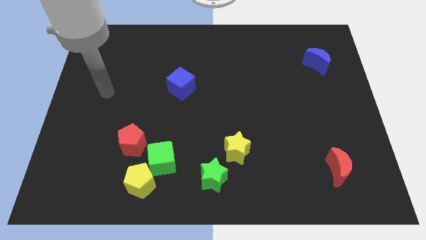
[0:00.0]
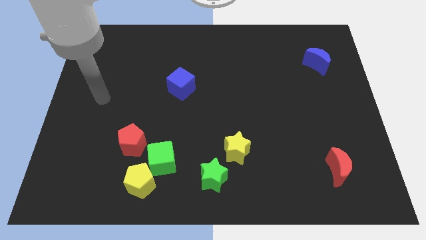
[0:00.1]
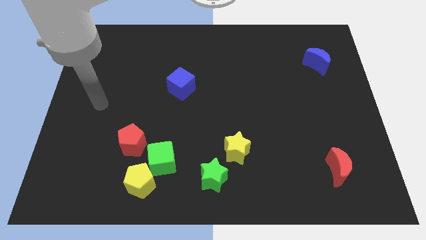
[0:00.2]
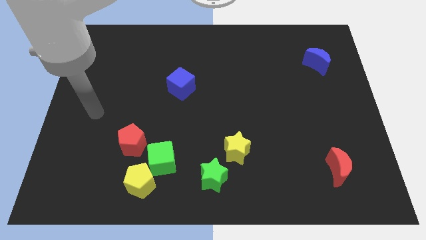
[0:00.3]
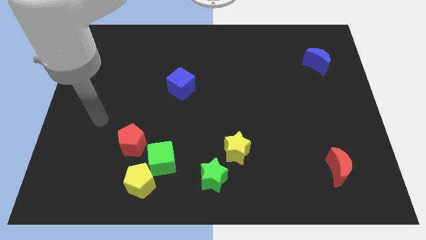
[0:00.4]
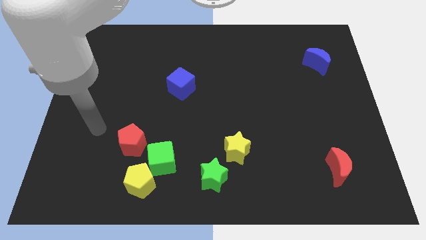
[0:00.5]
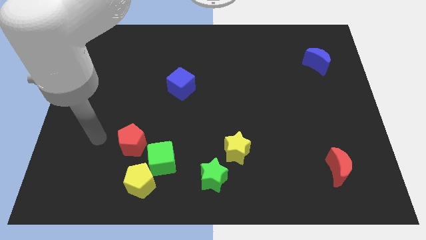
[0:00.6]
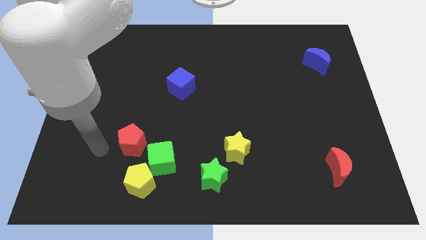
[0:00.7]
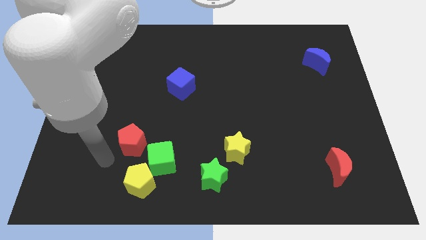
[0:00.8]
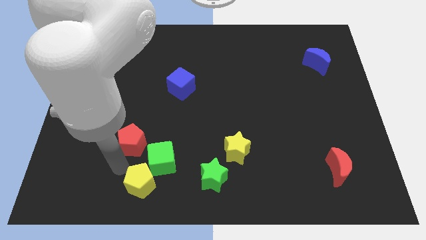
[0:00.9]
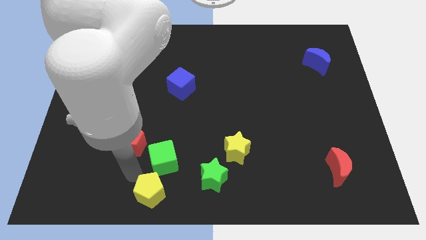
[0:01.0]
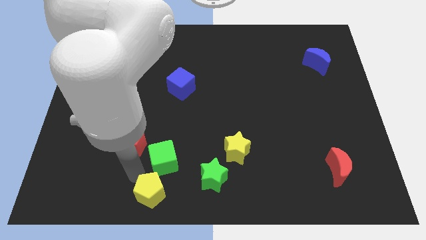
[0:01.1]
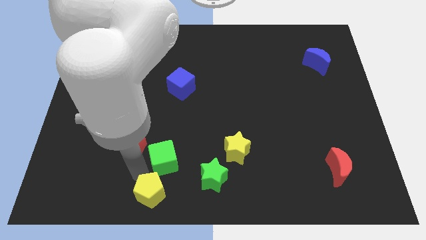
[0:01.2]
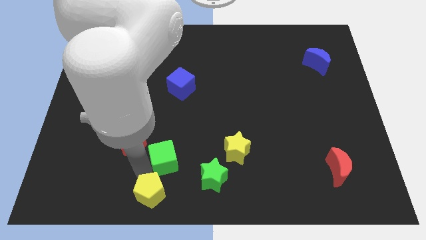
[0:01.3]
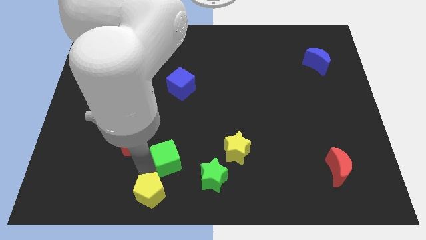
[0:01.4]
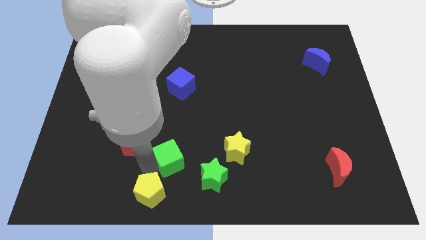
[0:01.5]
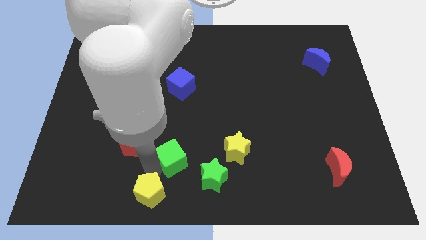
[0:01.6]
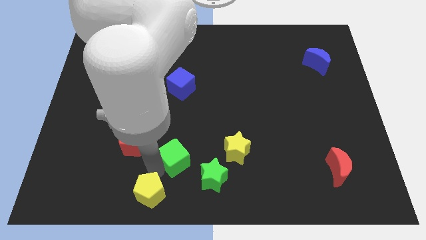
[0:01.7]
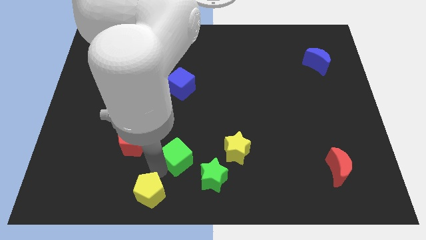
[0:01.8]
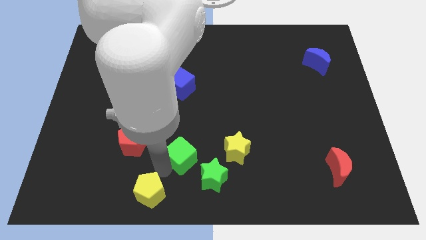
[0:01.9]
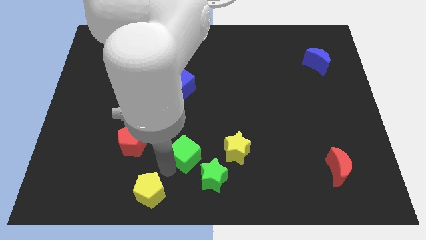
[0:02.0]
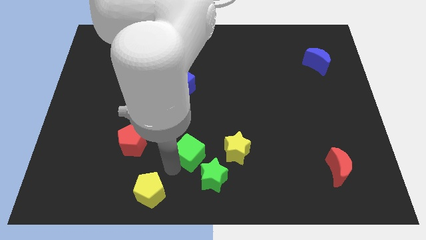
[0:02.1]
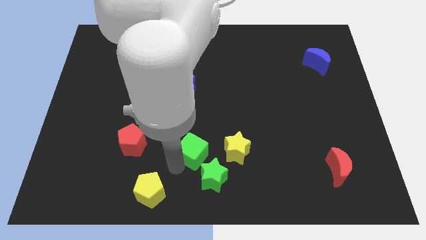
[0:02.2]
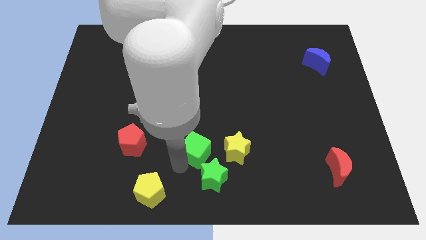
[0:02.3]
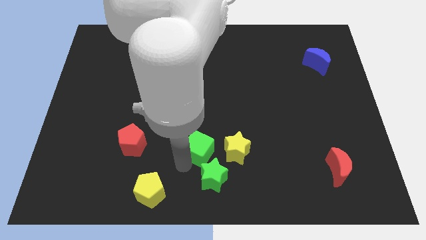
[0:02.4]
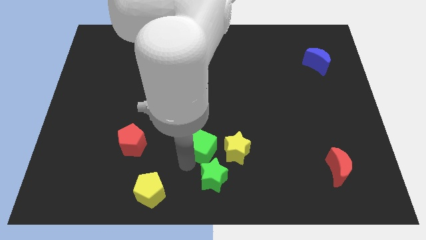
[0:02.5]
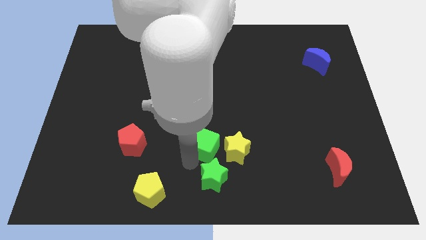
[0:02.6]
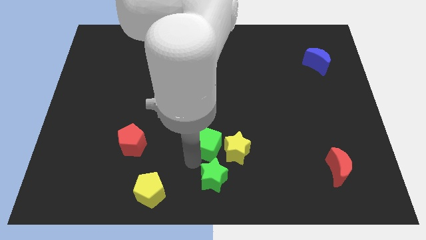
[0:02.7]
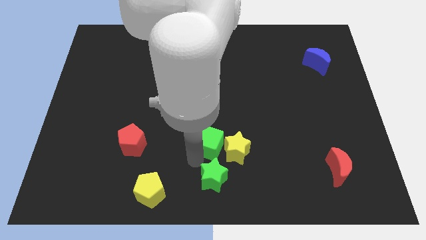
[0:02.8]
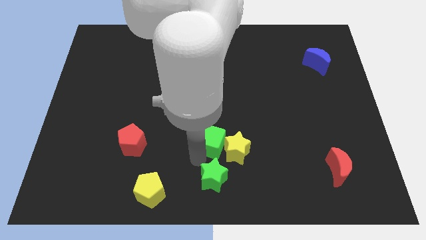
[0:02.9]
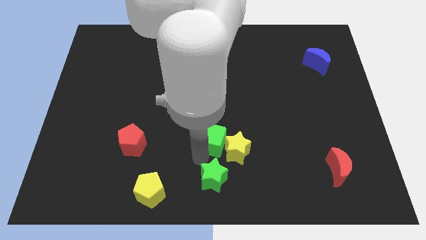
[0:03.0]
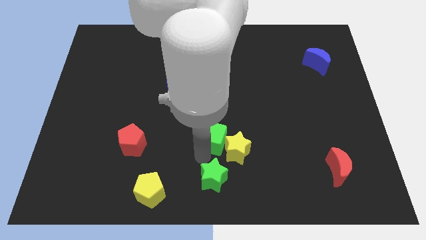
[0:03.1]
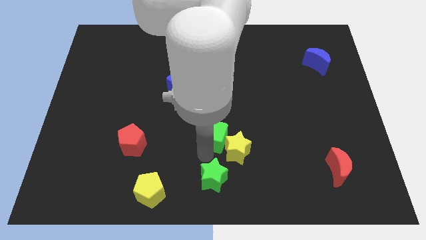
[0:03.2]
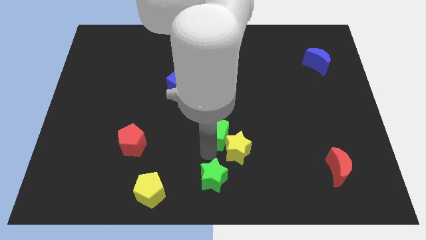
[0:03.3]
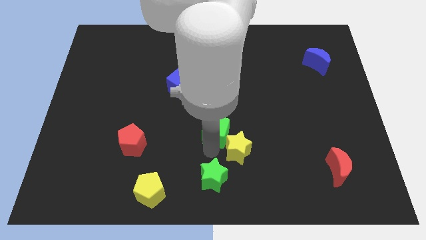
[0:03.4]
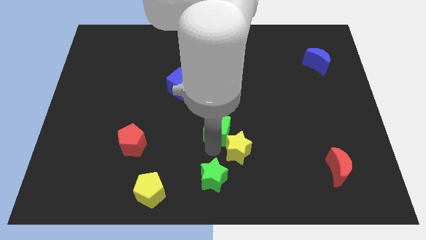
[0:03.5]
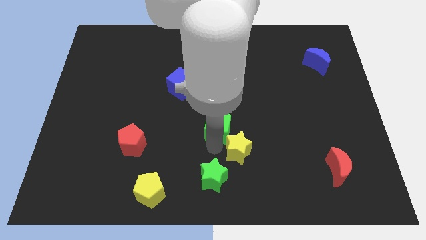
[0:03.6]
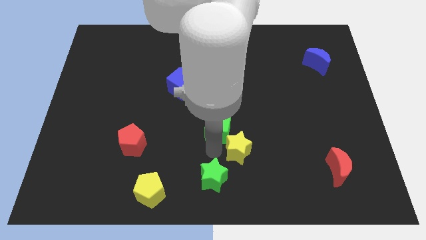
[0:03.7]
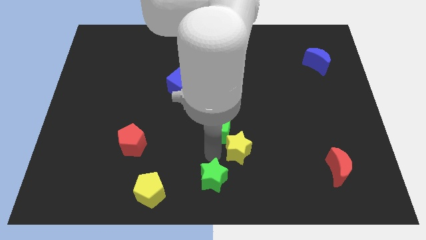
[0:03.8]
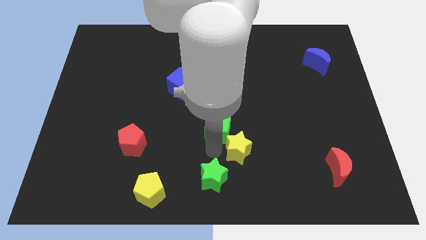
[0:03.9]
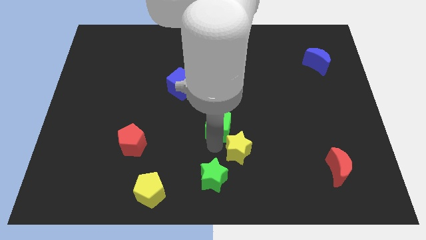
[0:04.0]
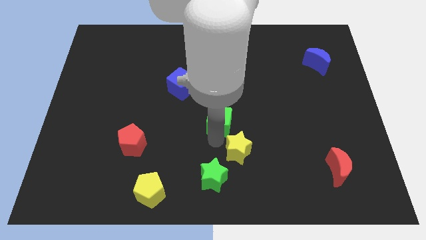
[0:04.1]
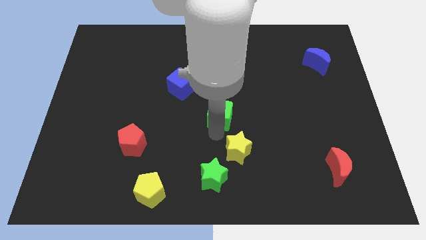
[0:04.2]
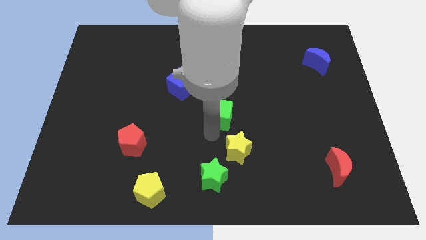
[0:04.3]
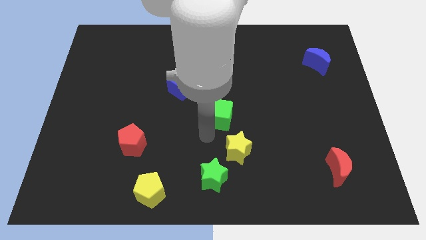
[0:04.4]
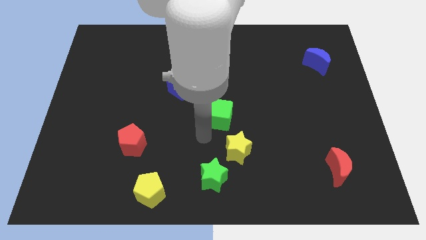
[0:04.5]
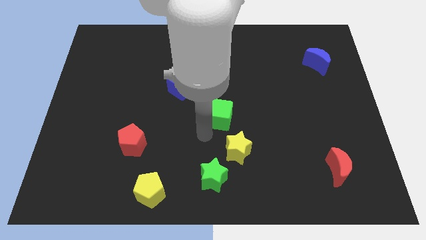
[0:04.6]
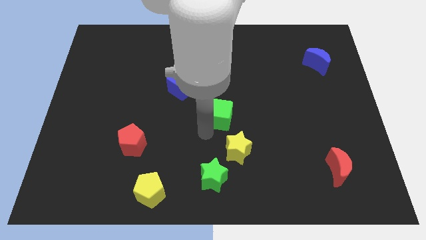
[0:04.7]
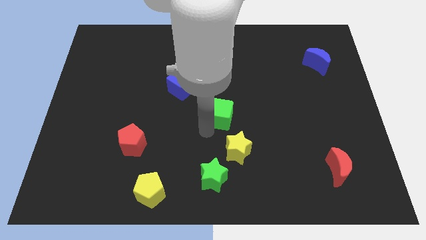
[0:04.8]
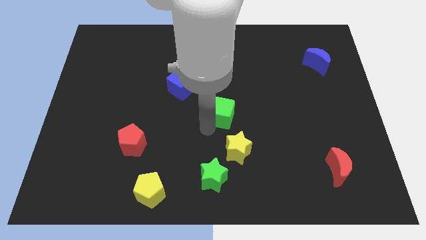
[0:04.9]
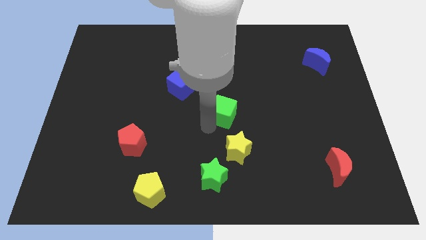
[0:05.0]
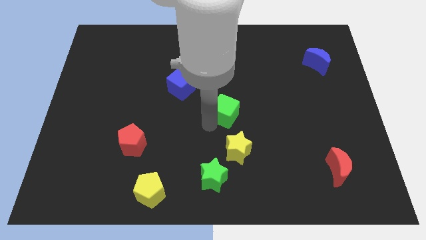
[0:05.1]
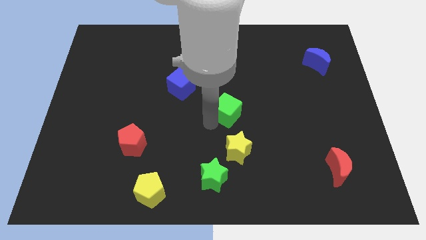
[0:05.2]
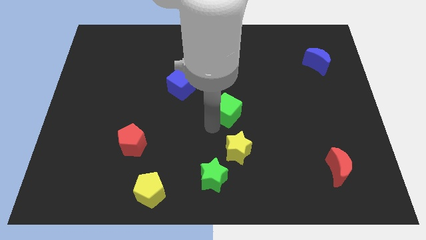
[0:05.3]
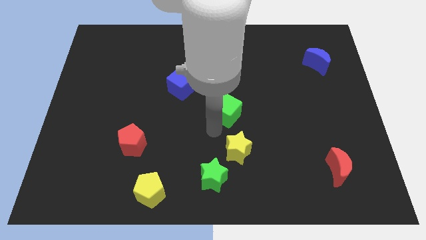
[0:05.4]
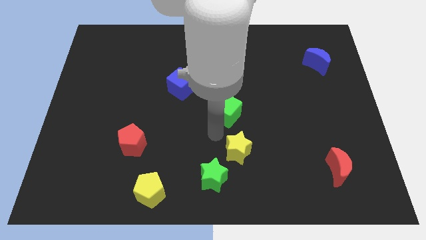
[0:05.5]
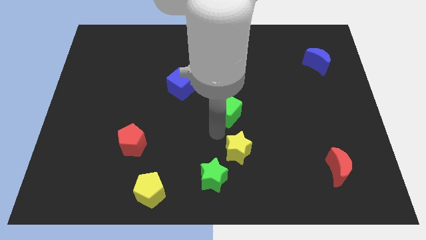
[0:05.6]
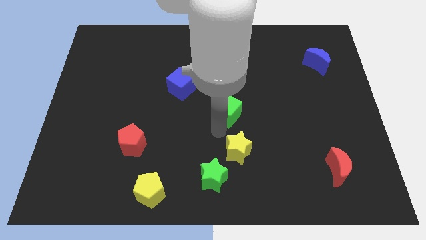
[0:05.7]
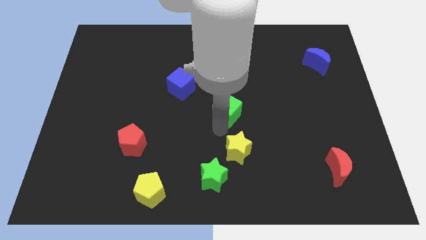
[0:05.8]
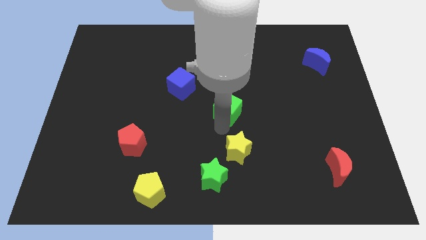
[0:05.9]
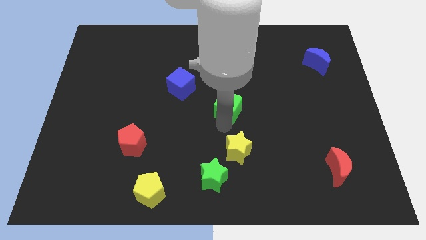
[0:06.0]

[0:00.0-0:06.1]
move the green cube upwards and then to the right

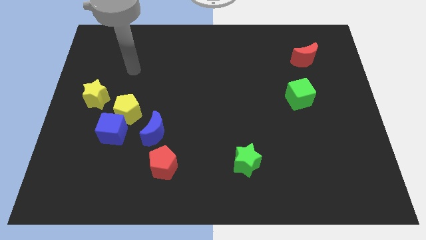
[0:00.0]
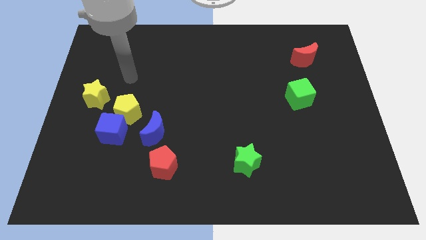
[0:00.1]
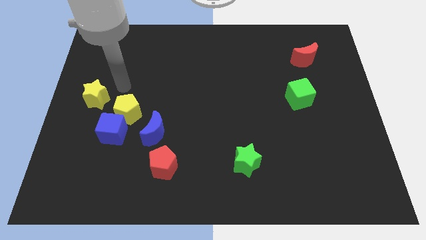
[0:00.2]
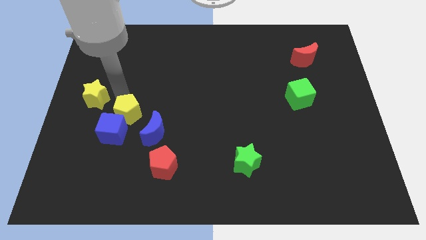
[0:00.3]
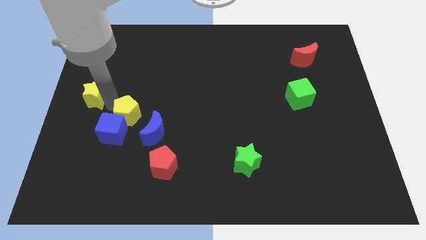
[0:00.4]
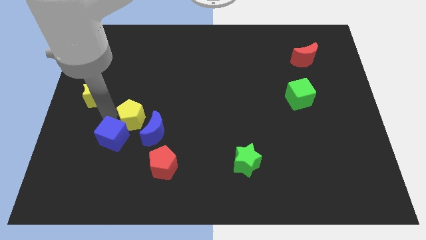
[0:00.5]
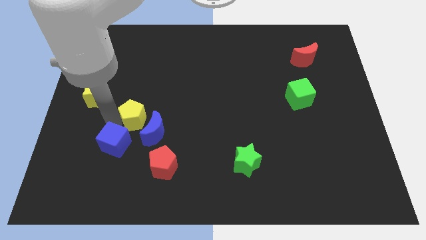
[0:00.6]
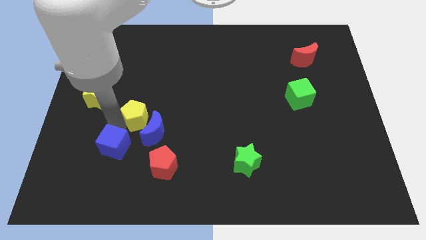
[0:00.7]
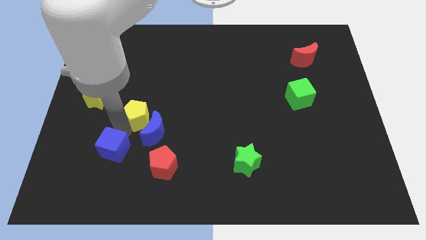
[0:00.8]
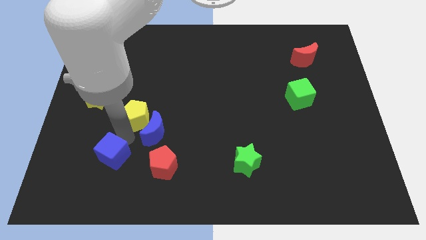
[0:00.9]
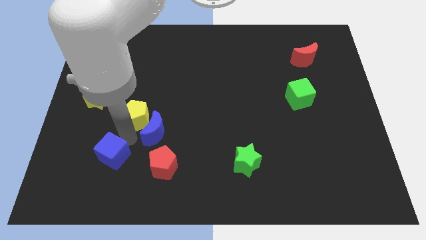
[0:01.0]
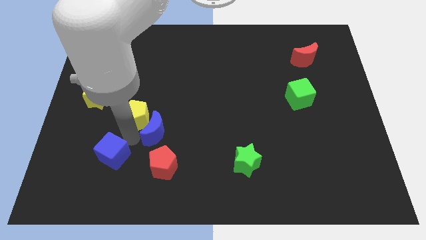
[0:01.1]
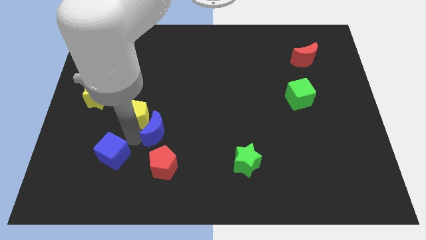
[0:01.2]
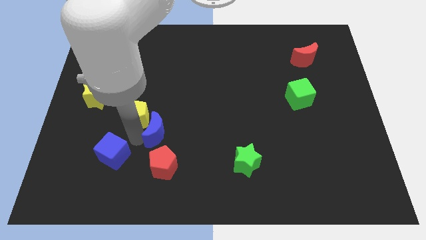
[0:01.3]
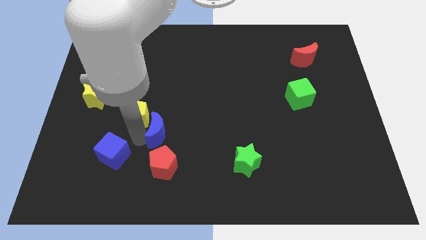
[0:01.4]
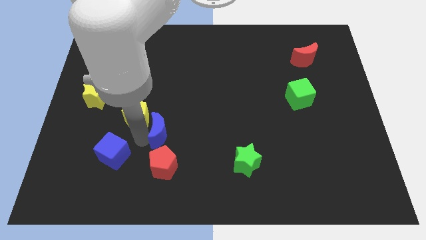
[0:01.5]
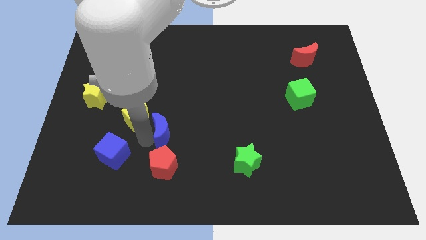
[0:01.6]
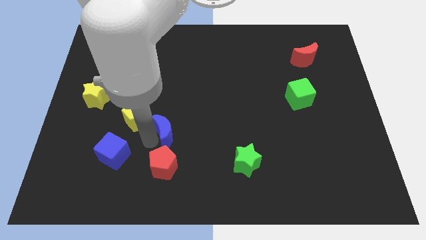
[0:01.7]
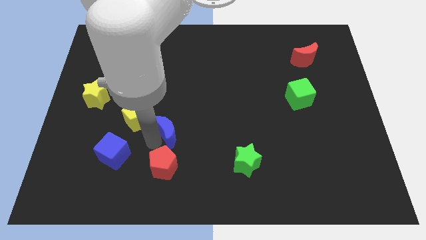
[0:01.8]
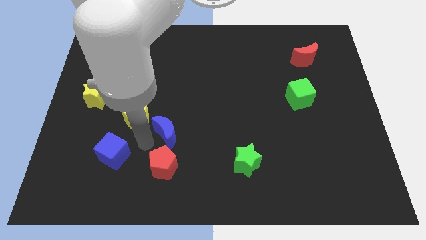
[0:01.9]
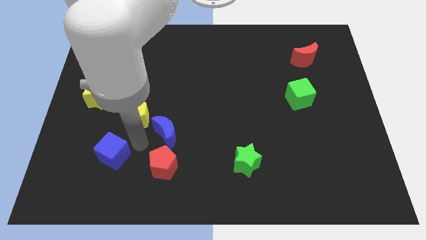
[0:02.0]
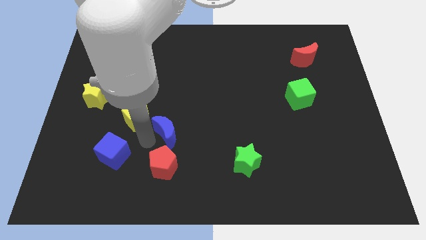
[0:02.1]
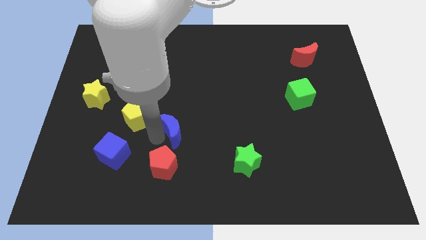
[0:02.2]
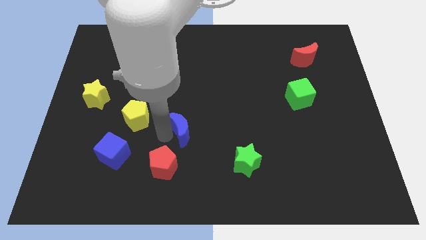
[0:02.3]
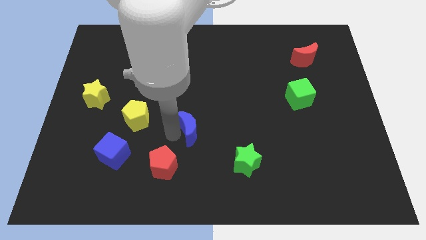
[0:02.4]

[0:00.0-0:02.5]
move the blue moon to the right slightly
